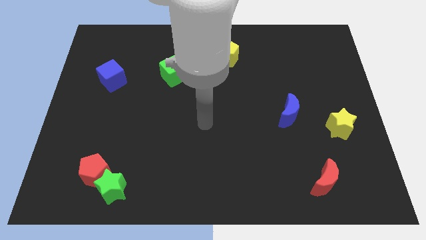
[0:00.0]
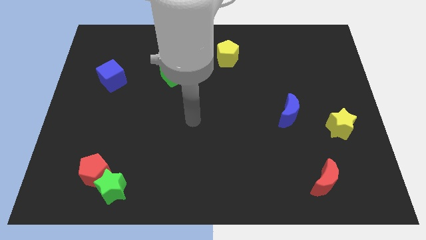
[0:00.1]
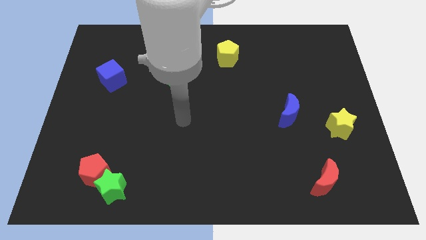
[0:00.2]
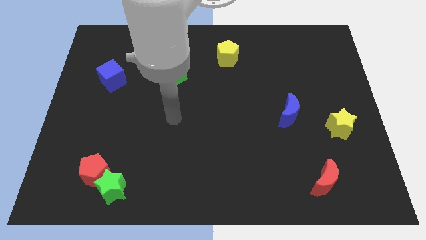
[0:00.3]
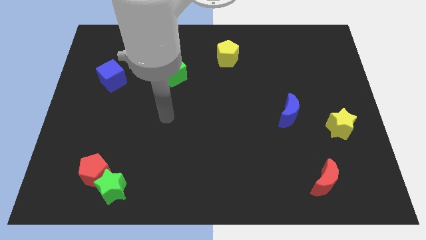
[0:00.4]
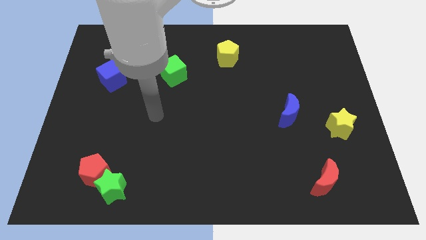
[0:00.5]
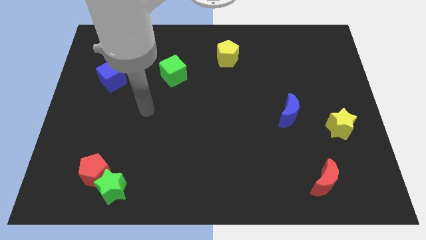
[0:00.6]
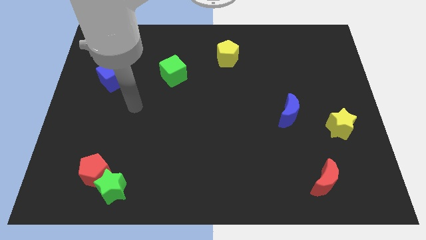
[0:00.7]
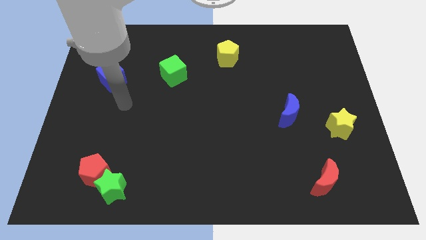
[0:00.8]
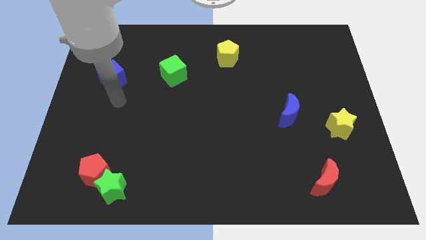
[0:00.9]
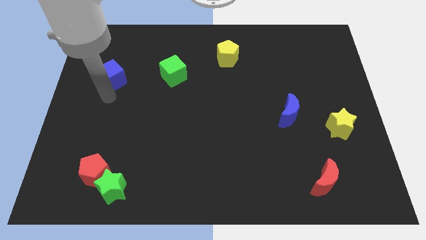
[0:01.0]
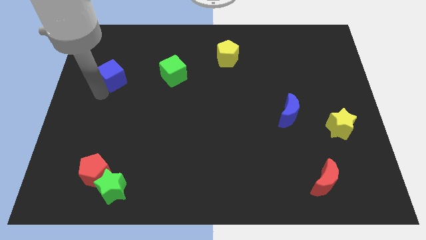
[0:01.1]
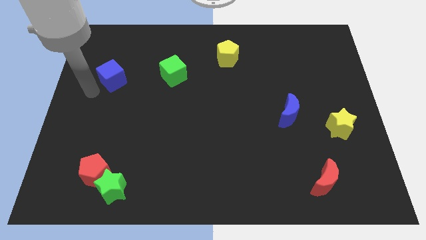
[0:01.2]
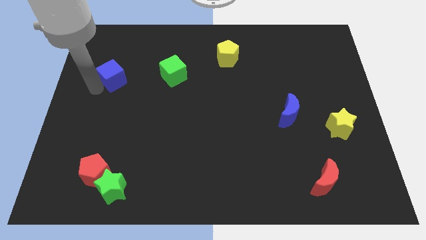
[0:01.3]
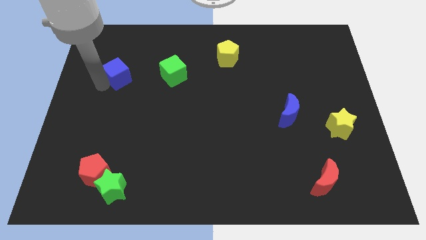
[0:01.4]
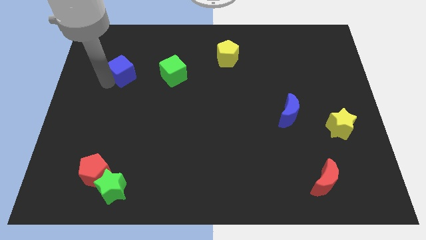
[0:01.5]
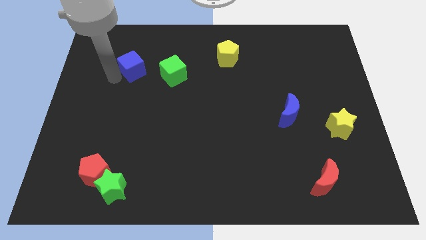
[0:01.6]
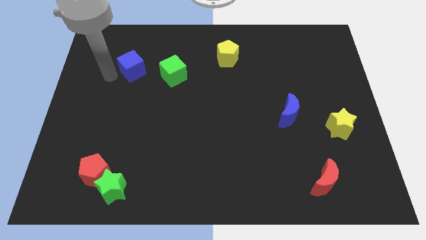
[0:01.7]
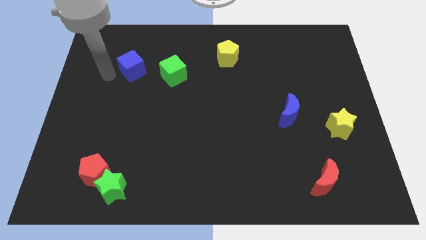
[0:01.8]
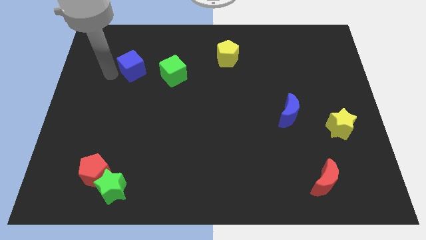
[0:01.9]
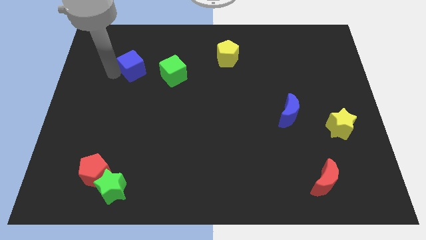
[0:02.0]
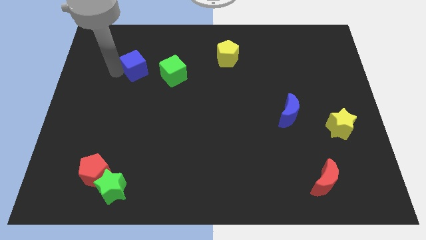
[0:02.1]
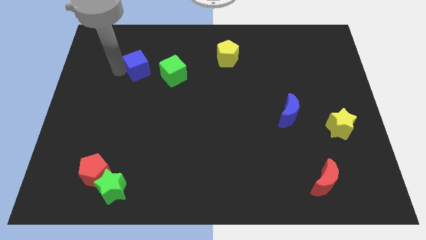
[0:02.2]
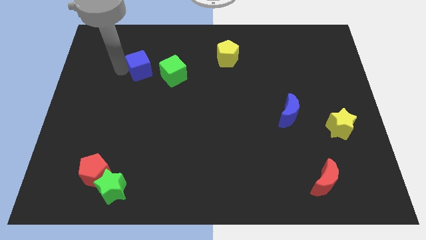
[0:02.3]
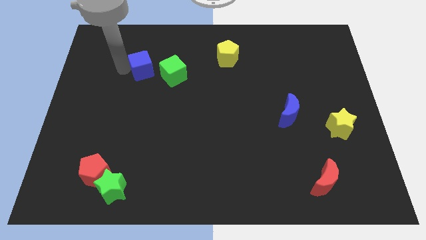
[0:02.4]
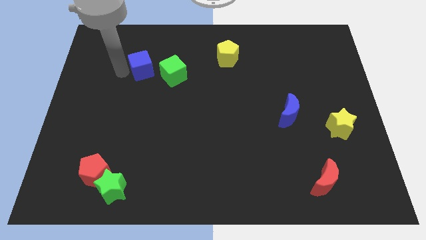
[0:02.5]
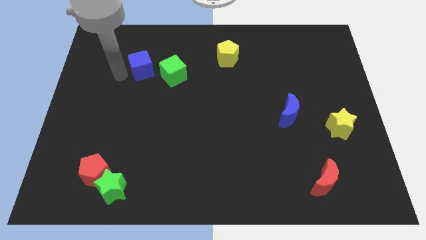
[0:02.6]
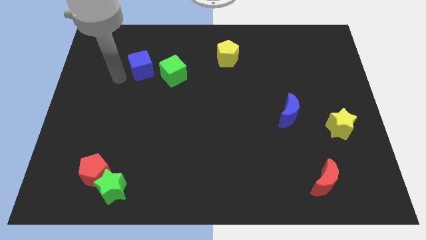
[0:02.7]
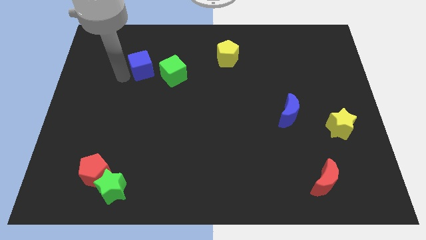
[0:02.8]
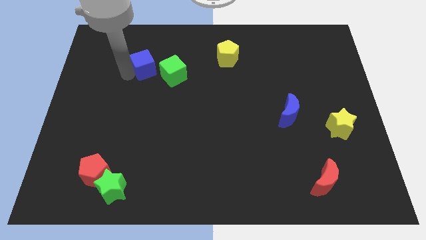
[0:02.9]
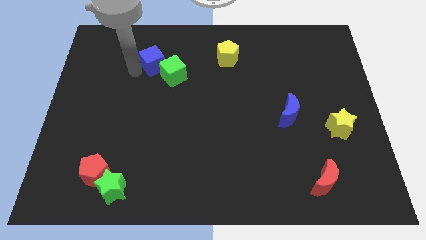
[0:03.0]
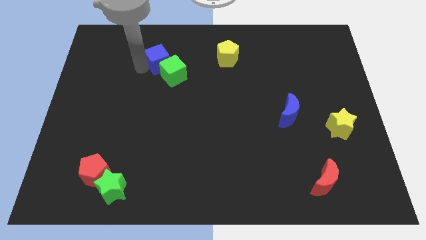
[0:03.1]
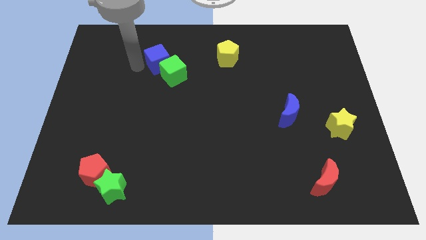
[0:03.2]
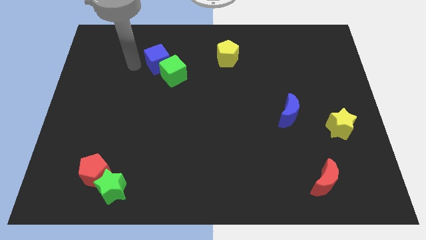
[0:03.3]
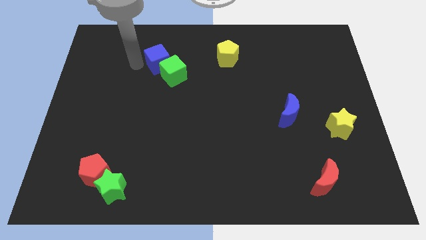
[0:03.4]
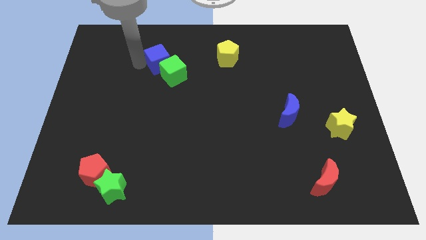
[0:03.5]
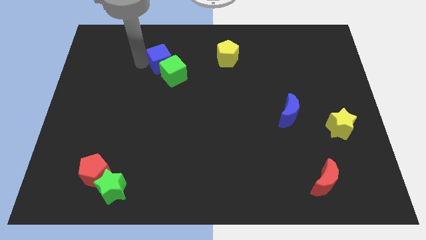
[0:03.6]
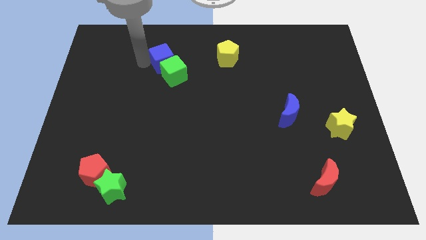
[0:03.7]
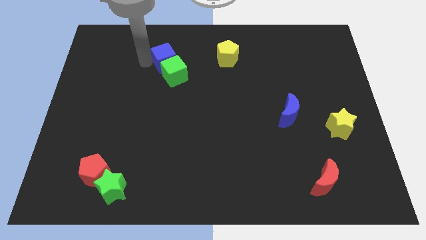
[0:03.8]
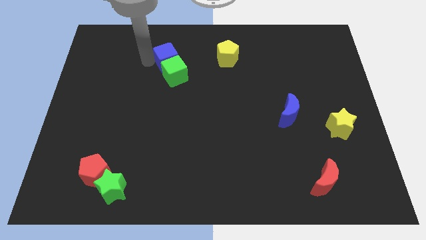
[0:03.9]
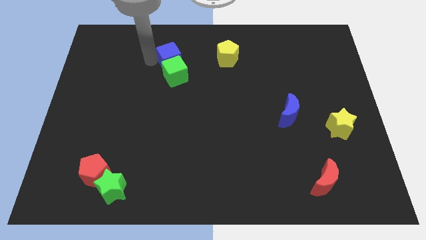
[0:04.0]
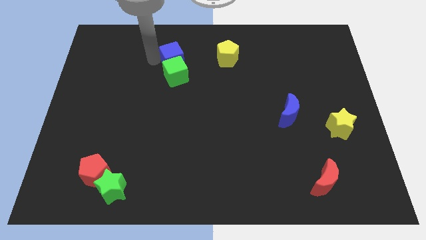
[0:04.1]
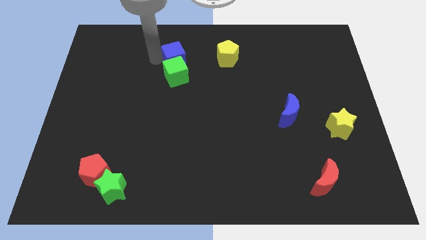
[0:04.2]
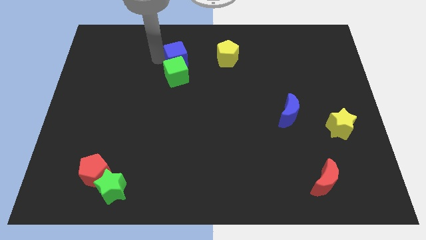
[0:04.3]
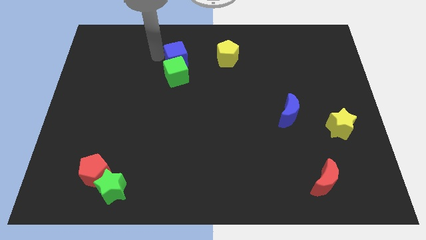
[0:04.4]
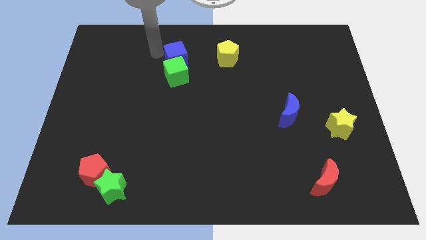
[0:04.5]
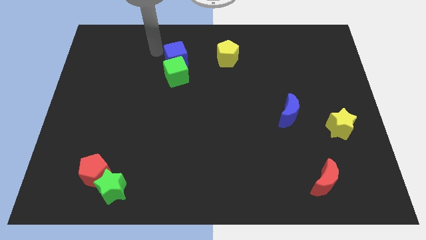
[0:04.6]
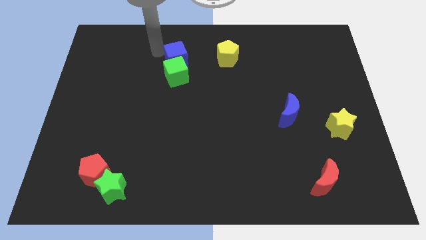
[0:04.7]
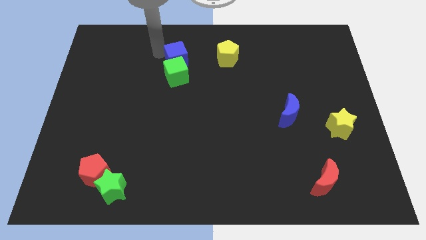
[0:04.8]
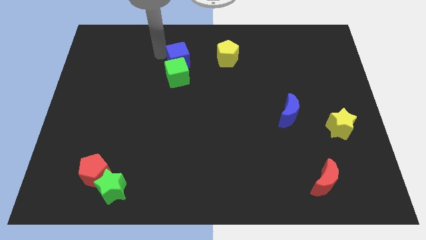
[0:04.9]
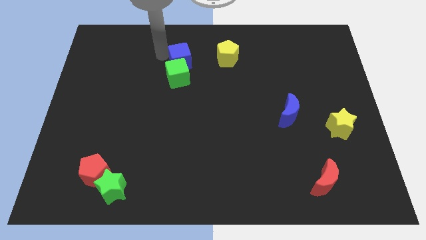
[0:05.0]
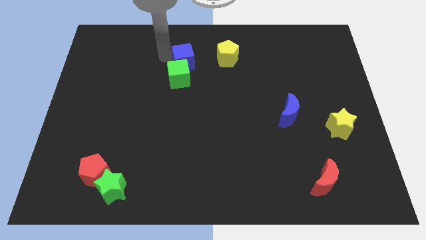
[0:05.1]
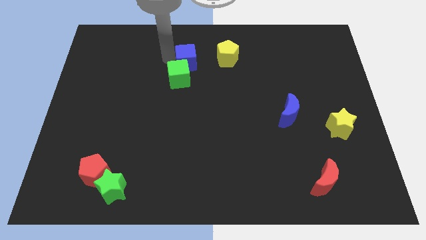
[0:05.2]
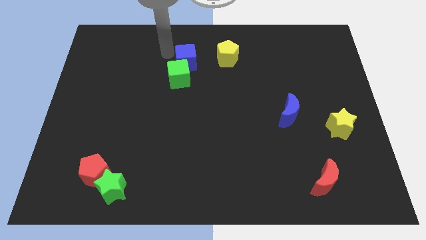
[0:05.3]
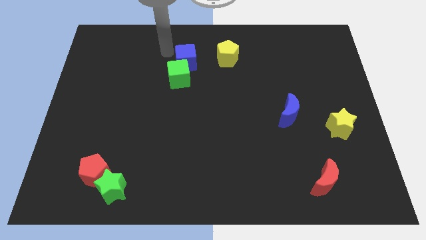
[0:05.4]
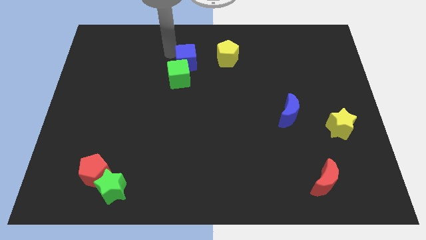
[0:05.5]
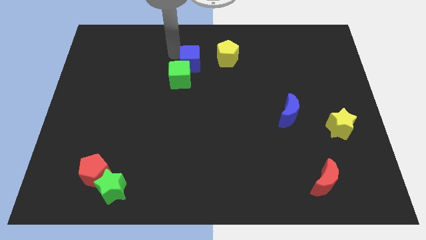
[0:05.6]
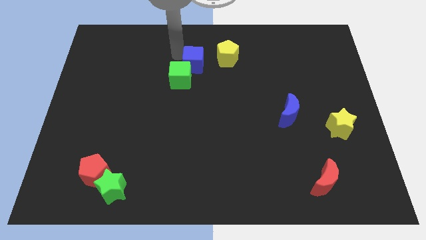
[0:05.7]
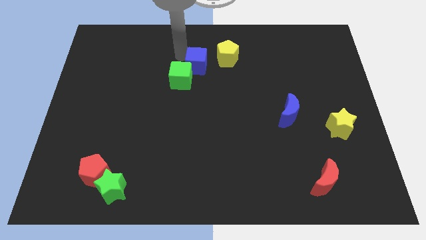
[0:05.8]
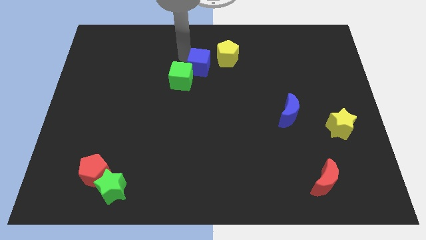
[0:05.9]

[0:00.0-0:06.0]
push the blue cube just right of the green cube
